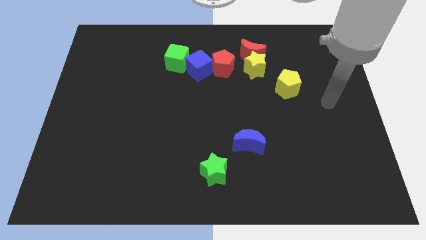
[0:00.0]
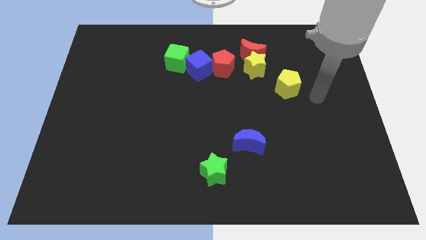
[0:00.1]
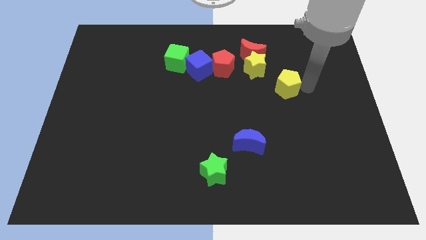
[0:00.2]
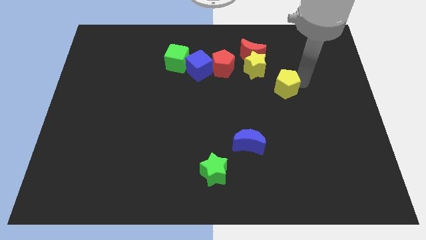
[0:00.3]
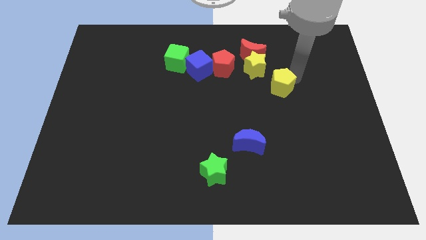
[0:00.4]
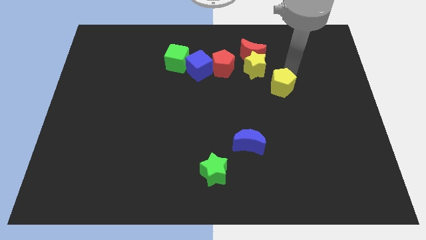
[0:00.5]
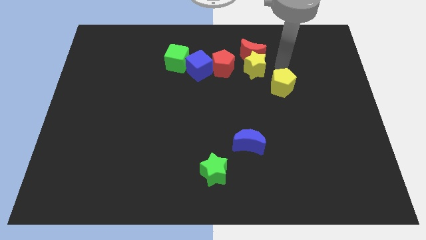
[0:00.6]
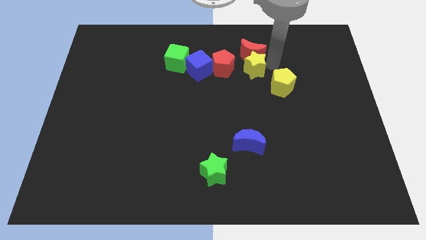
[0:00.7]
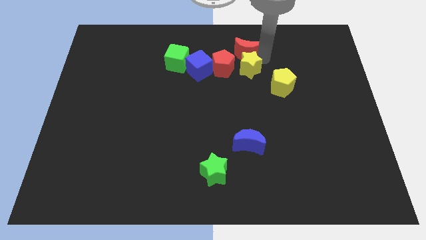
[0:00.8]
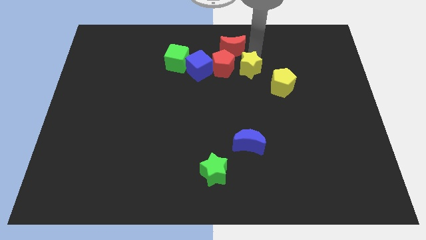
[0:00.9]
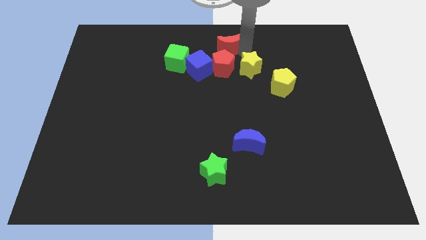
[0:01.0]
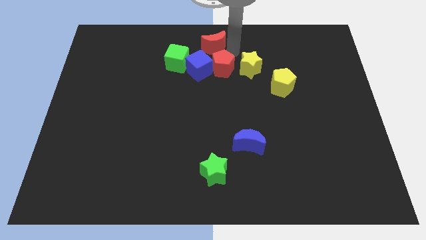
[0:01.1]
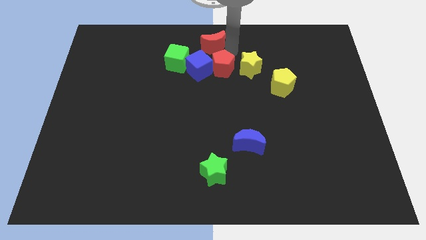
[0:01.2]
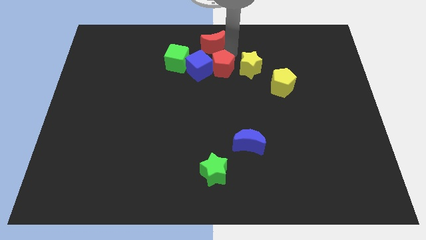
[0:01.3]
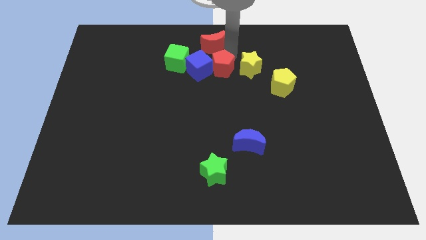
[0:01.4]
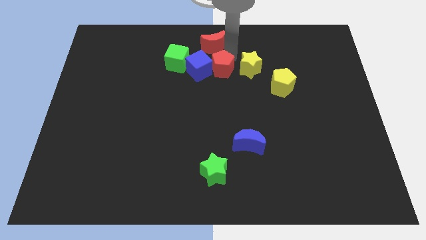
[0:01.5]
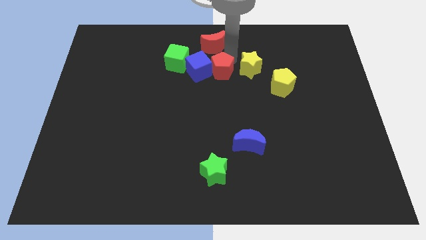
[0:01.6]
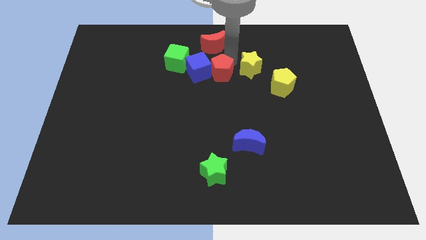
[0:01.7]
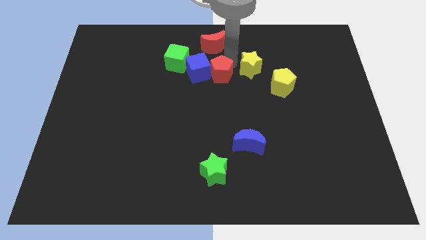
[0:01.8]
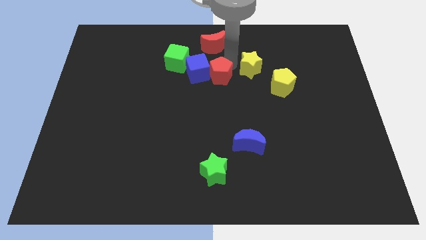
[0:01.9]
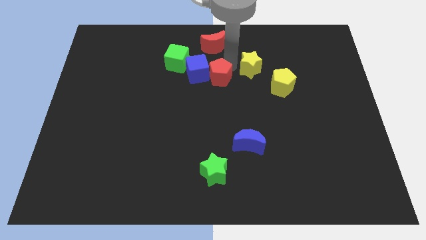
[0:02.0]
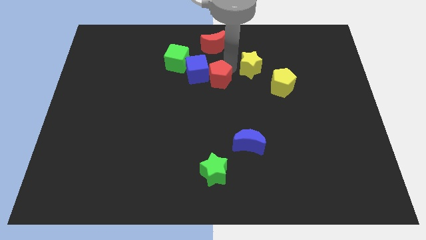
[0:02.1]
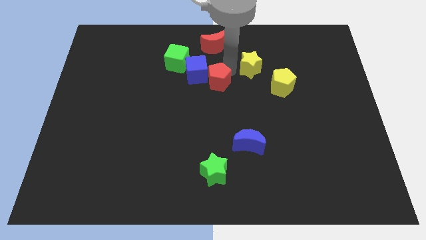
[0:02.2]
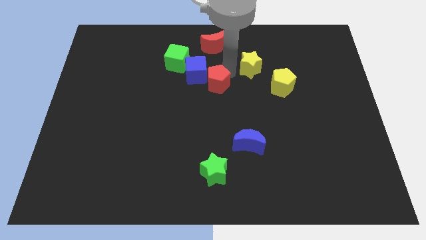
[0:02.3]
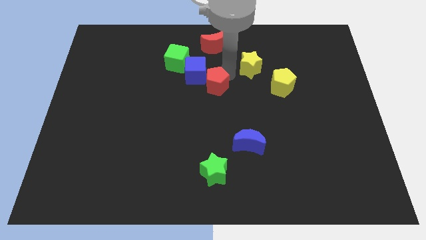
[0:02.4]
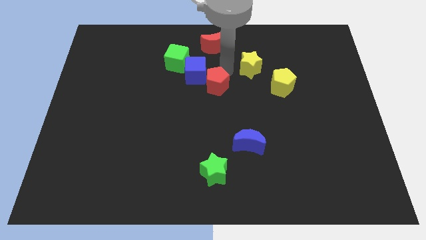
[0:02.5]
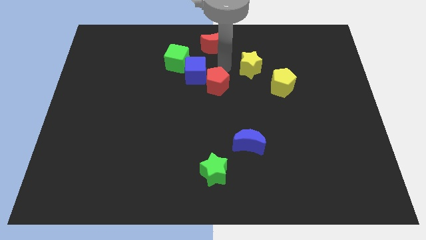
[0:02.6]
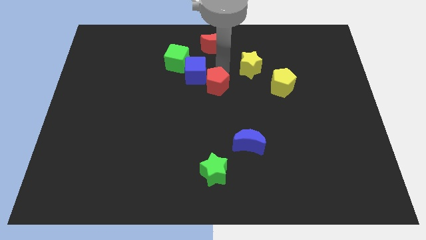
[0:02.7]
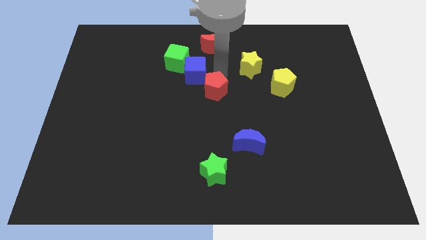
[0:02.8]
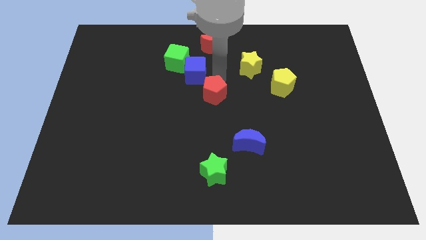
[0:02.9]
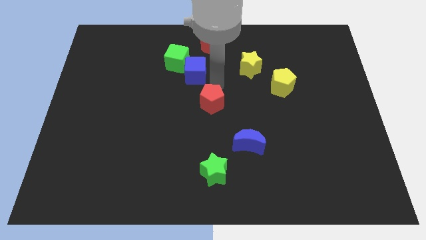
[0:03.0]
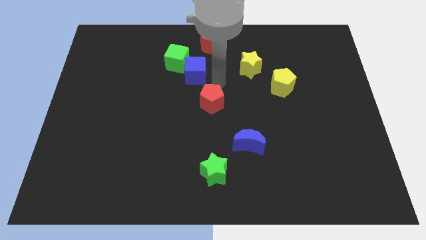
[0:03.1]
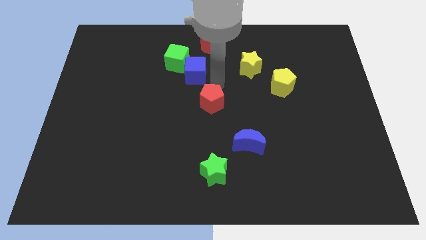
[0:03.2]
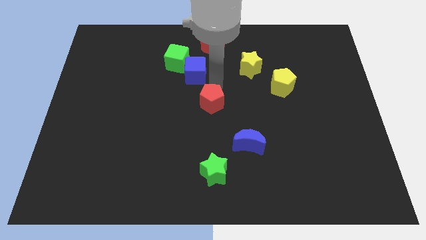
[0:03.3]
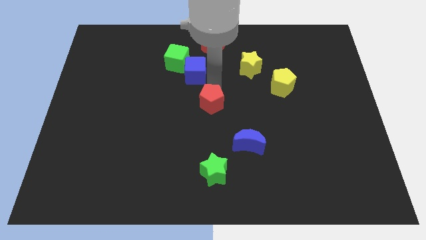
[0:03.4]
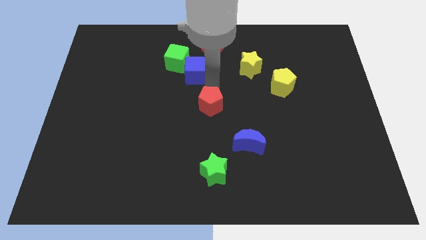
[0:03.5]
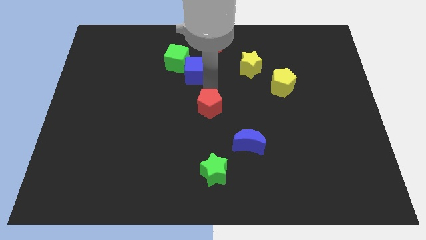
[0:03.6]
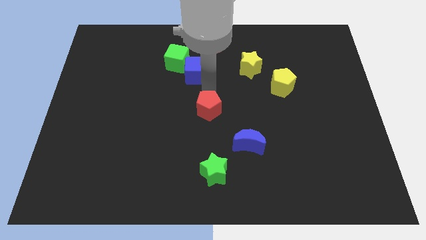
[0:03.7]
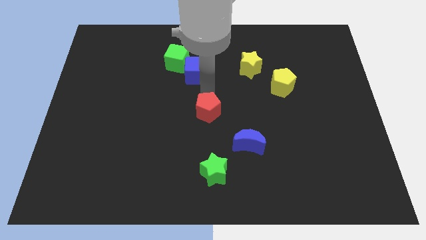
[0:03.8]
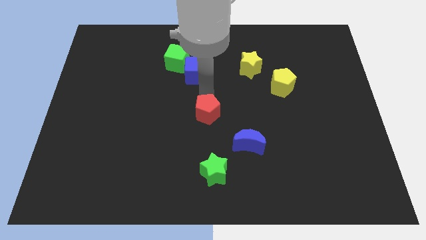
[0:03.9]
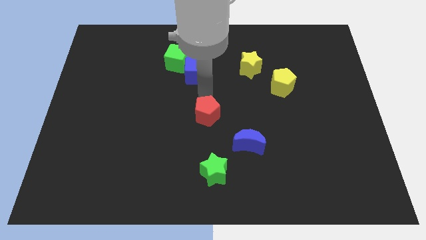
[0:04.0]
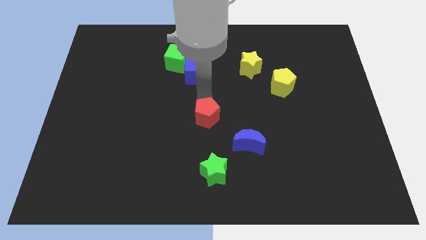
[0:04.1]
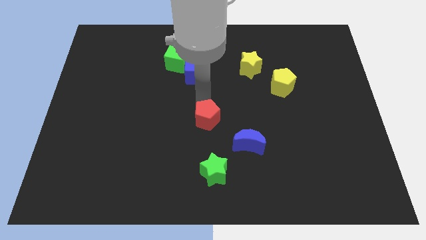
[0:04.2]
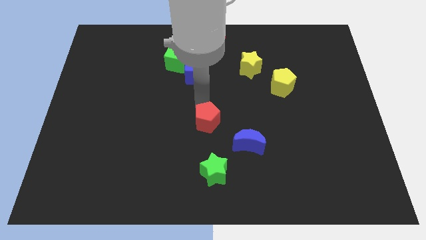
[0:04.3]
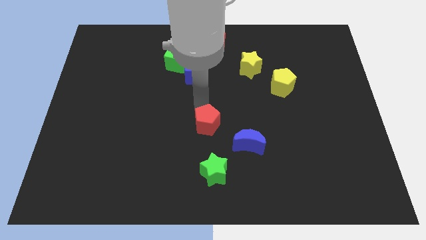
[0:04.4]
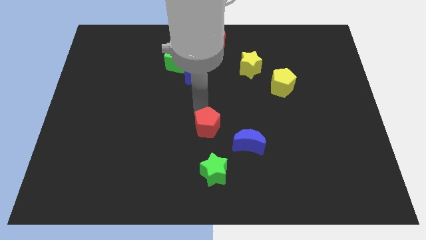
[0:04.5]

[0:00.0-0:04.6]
slide the red pentagon left of the blue moon

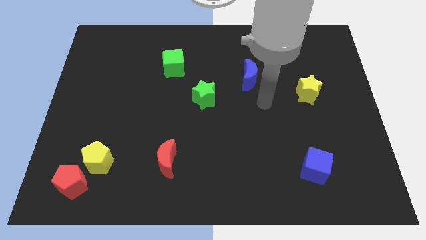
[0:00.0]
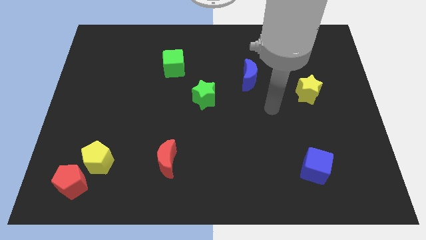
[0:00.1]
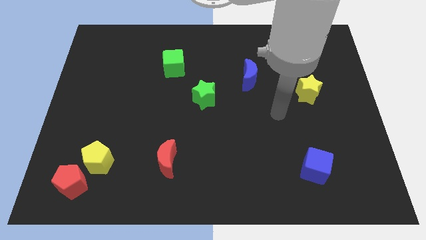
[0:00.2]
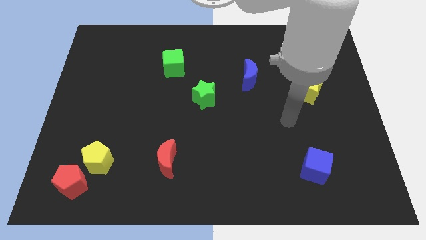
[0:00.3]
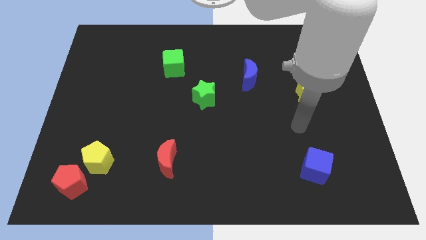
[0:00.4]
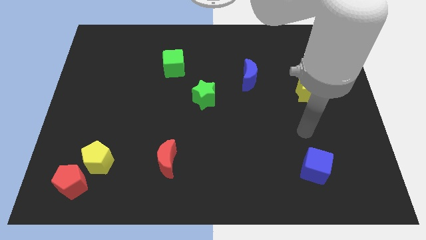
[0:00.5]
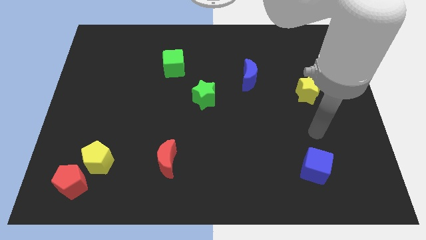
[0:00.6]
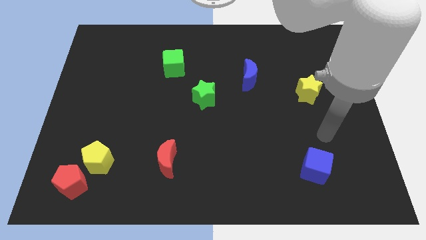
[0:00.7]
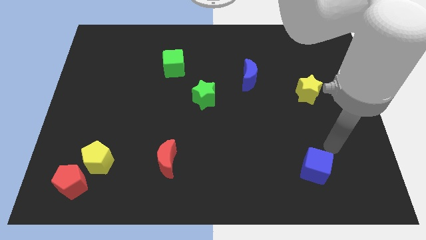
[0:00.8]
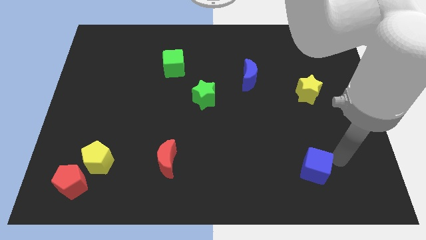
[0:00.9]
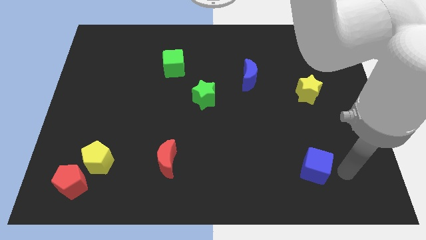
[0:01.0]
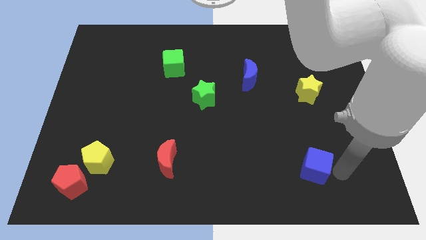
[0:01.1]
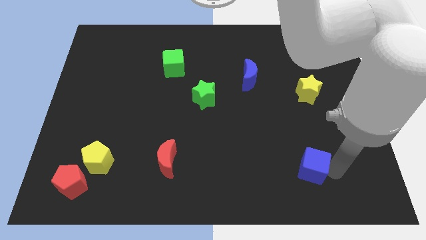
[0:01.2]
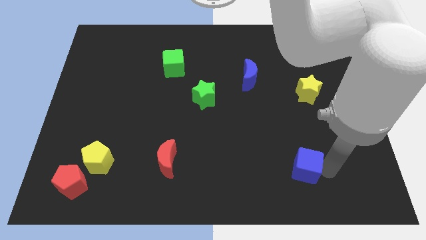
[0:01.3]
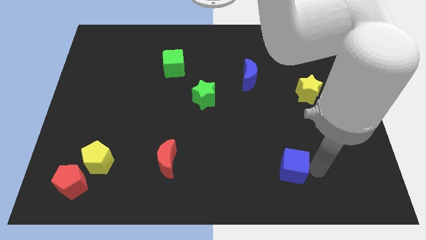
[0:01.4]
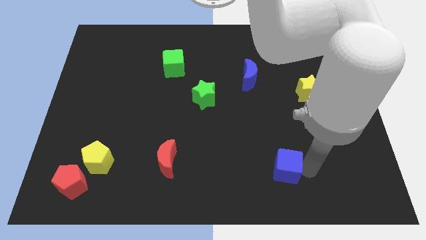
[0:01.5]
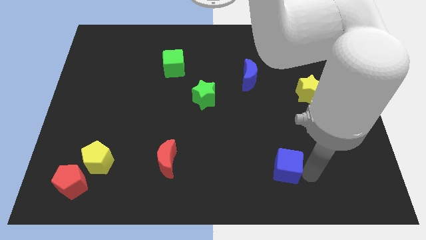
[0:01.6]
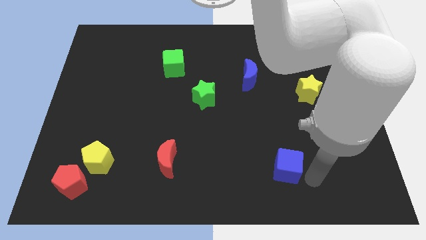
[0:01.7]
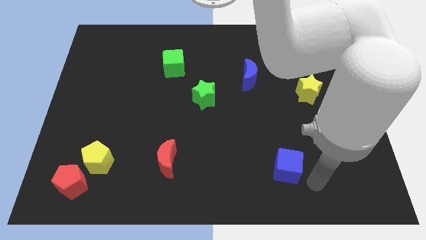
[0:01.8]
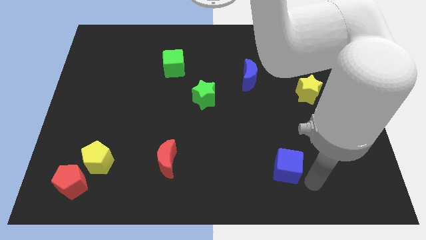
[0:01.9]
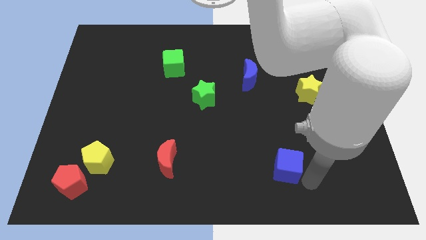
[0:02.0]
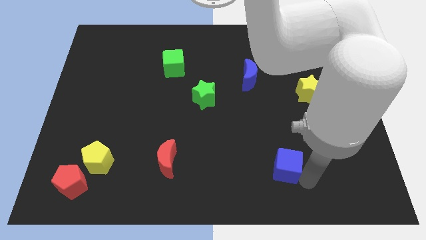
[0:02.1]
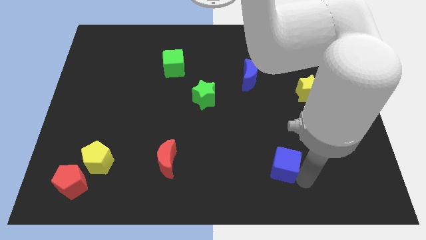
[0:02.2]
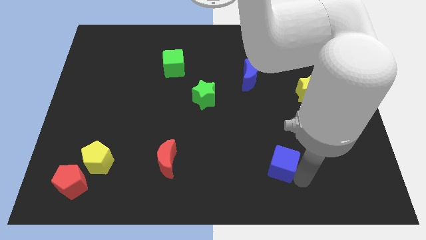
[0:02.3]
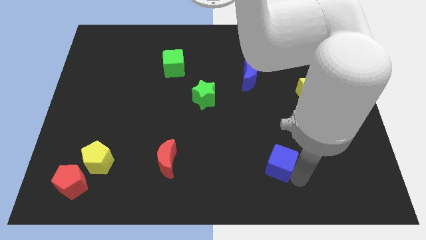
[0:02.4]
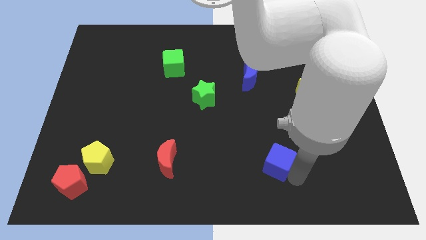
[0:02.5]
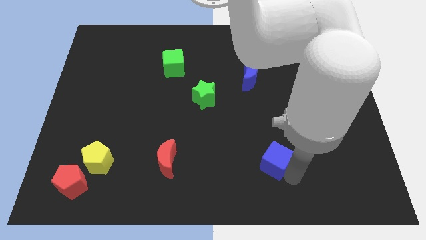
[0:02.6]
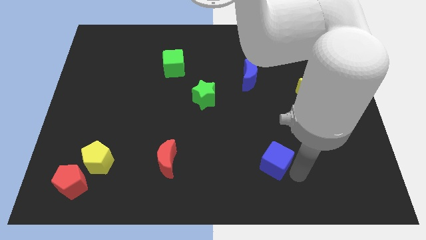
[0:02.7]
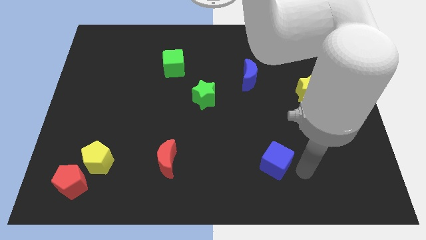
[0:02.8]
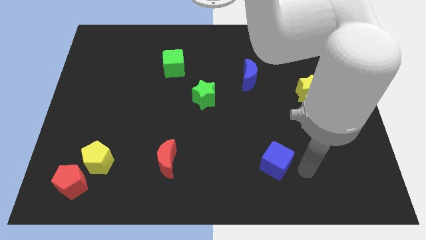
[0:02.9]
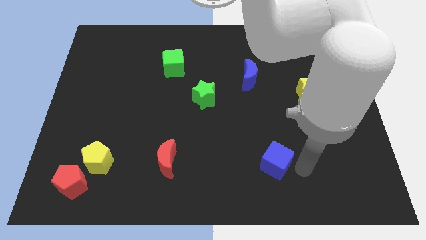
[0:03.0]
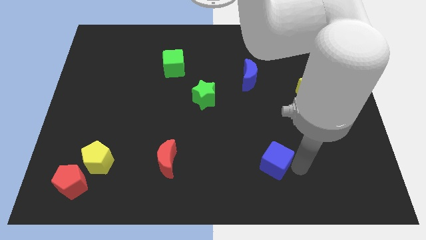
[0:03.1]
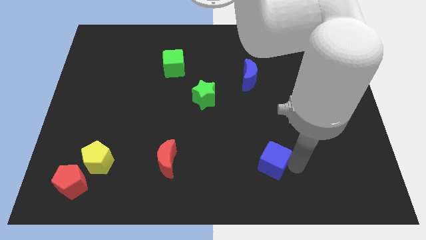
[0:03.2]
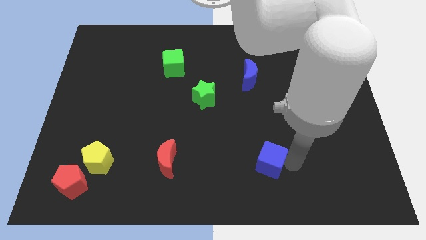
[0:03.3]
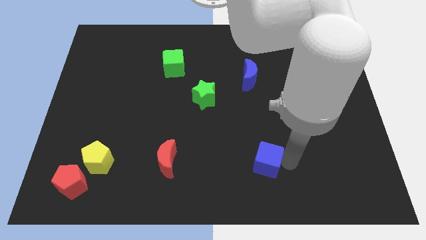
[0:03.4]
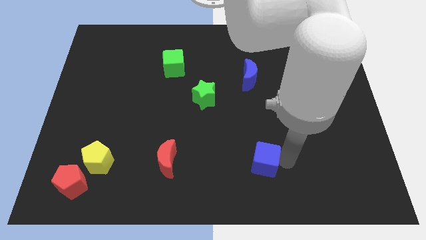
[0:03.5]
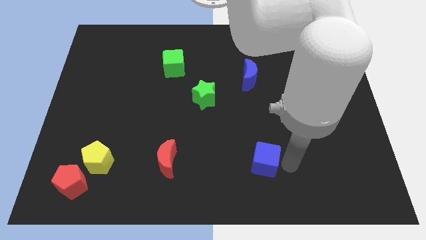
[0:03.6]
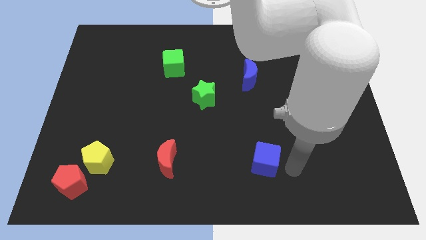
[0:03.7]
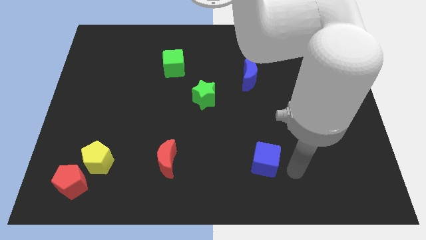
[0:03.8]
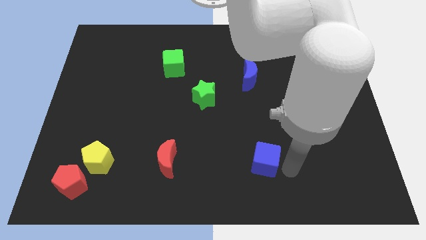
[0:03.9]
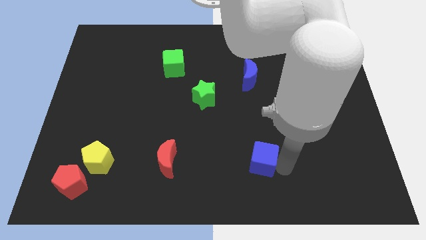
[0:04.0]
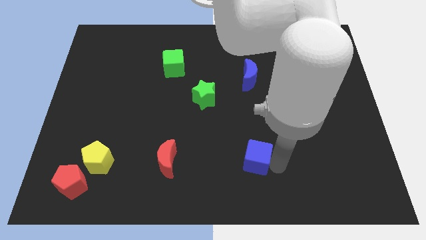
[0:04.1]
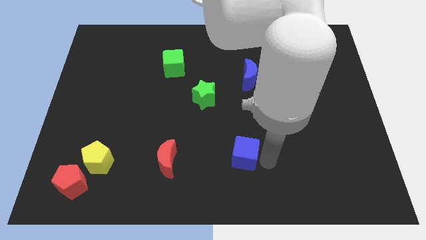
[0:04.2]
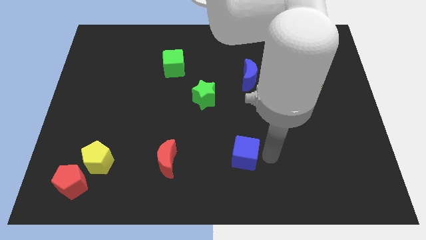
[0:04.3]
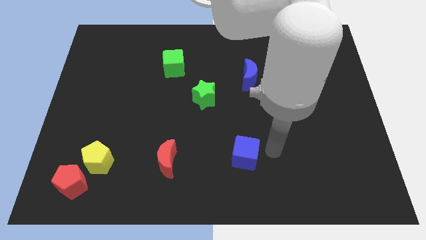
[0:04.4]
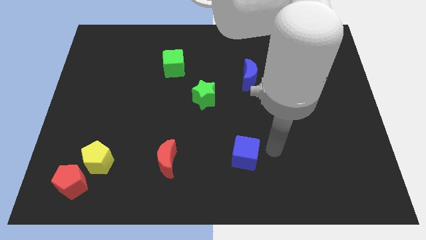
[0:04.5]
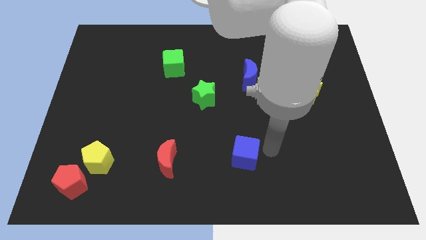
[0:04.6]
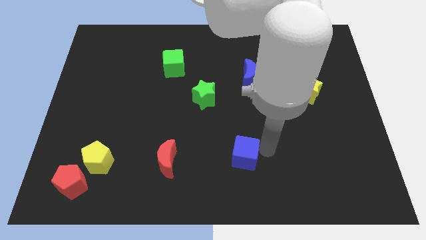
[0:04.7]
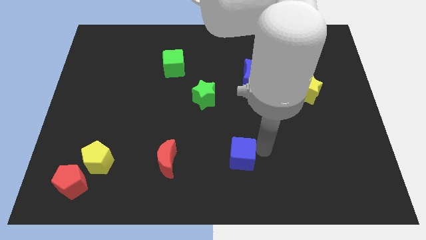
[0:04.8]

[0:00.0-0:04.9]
push the blue cube just right of the red moon
